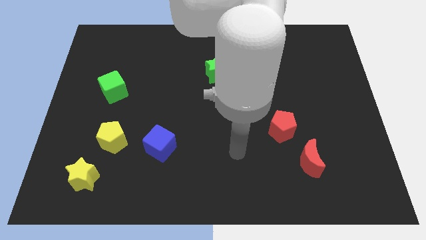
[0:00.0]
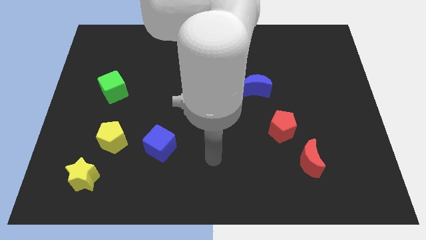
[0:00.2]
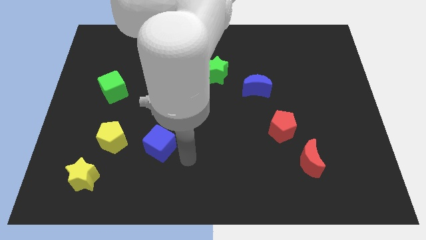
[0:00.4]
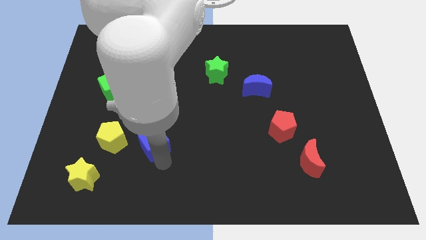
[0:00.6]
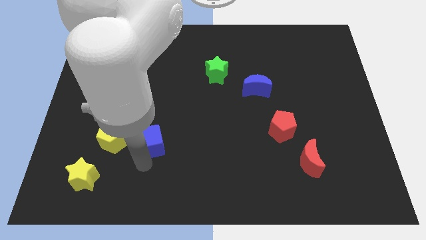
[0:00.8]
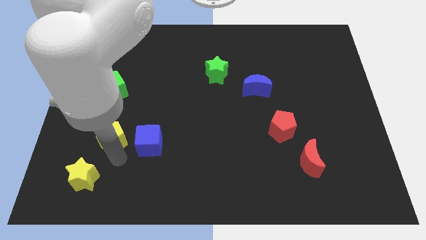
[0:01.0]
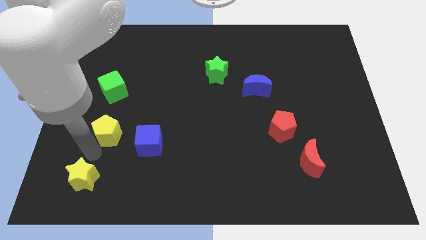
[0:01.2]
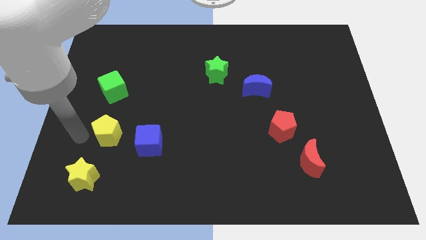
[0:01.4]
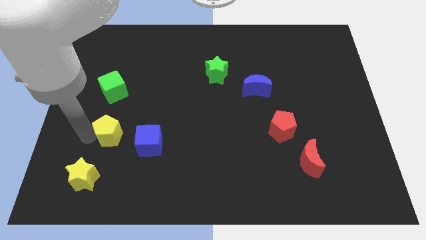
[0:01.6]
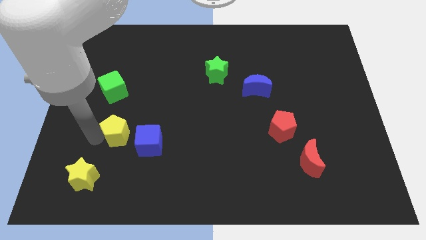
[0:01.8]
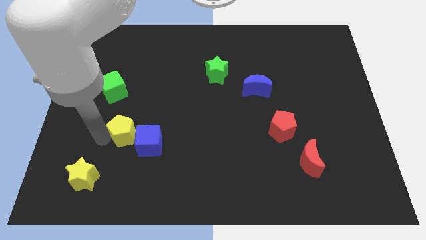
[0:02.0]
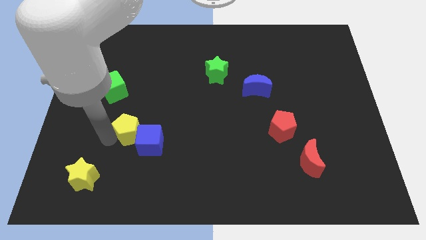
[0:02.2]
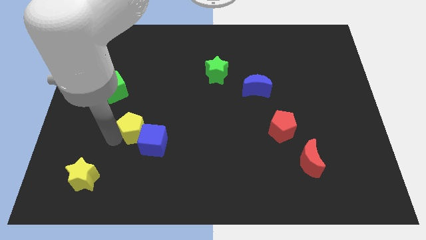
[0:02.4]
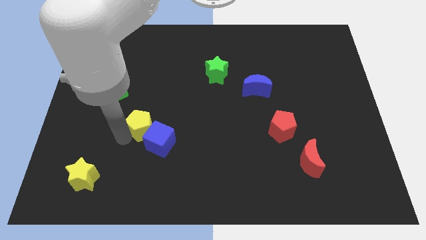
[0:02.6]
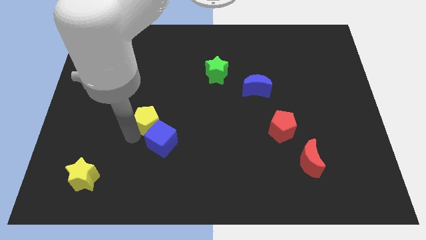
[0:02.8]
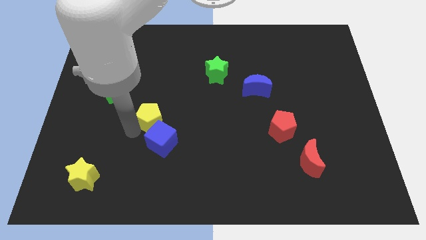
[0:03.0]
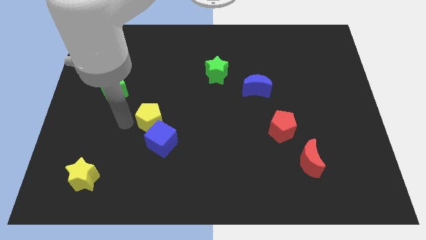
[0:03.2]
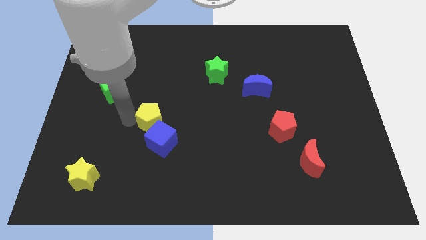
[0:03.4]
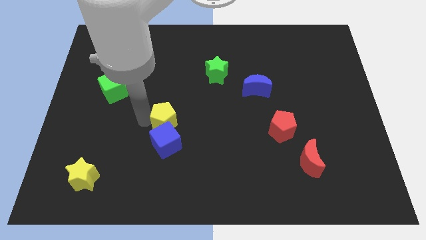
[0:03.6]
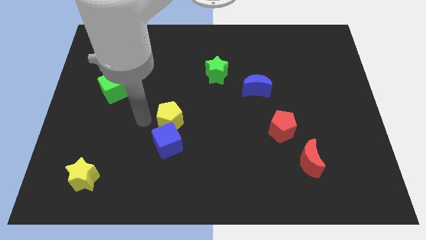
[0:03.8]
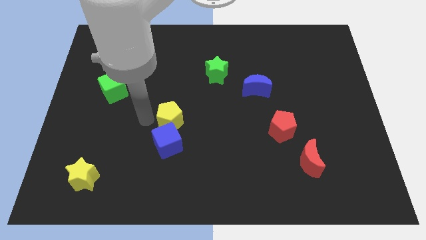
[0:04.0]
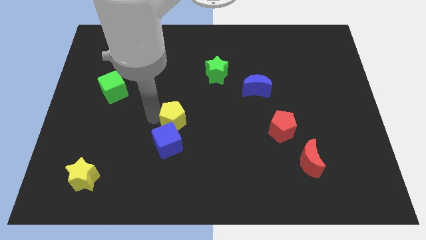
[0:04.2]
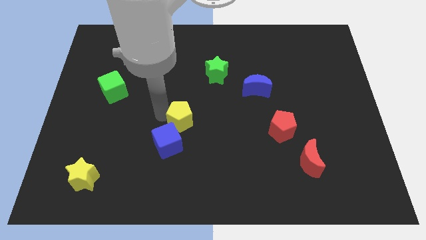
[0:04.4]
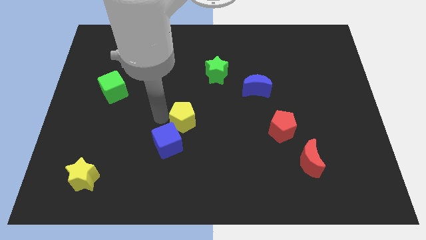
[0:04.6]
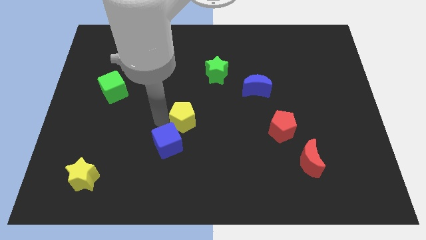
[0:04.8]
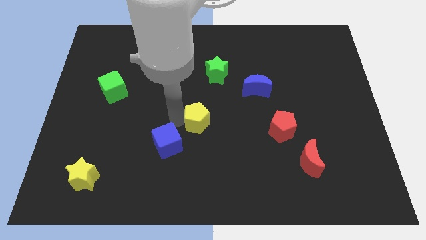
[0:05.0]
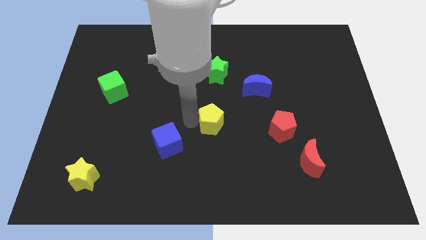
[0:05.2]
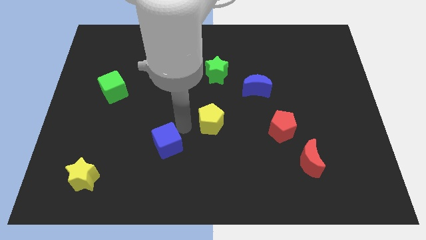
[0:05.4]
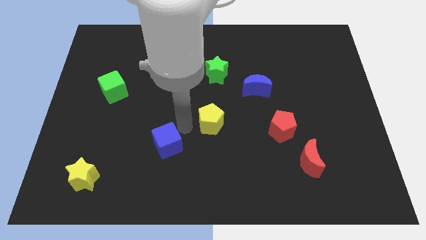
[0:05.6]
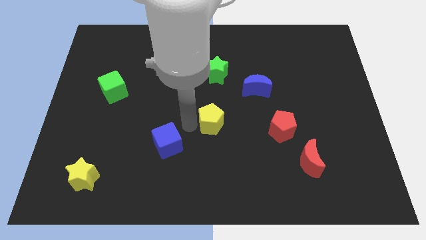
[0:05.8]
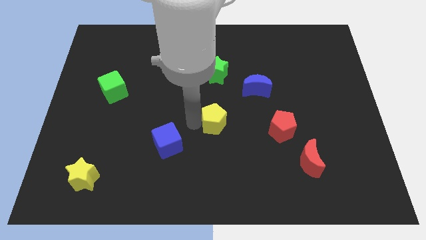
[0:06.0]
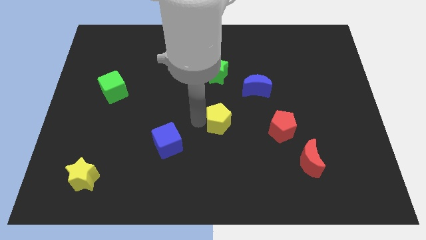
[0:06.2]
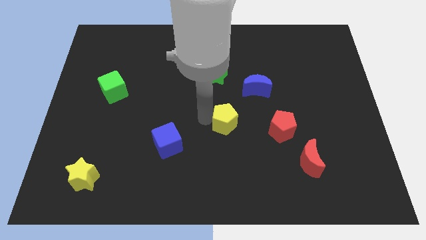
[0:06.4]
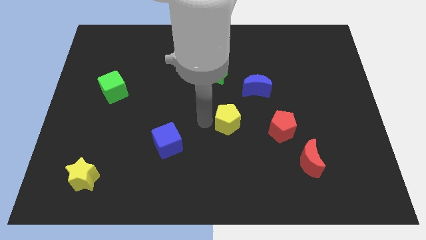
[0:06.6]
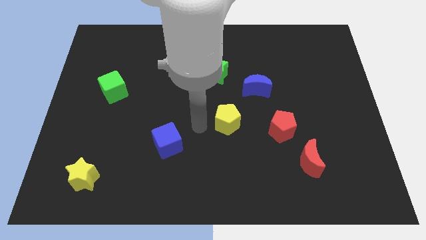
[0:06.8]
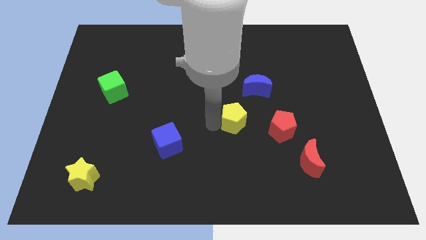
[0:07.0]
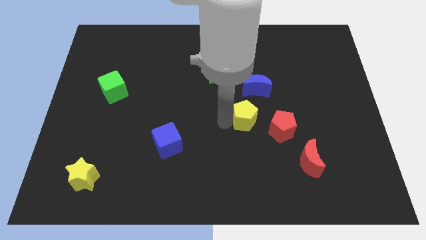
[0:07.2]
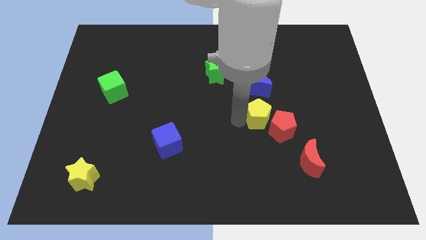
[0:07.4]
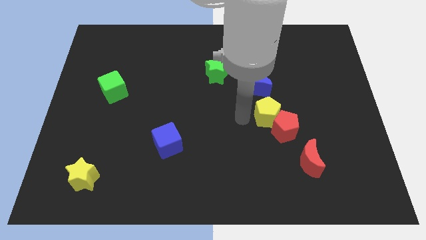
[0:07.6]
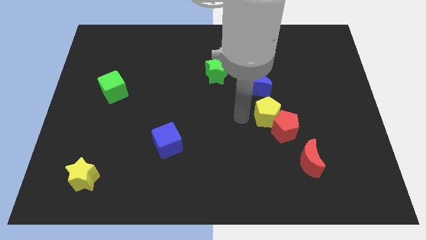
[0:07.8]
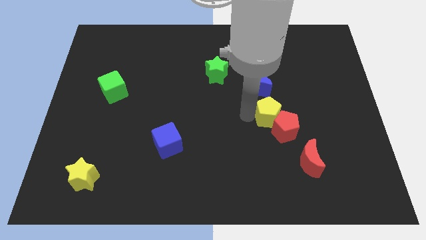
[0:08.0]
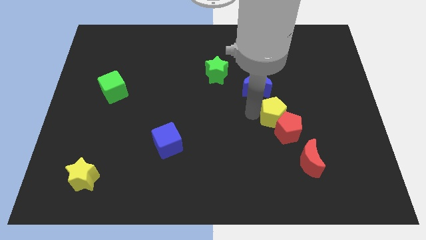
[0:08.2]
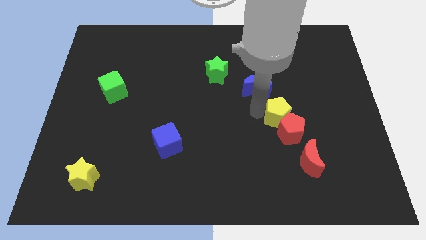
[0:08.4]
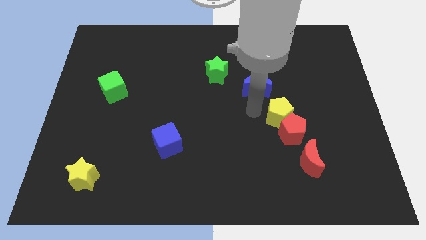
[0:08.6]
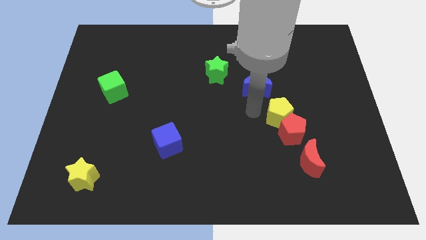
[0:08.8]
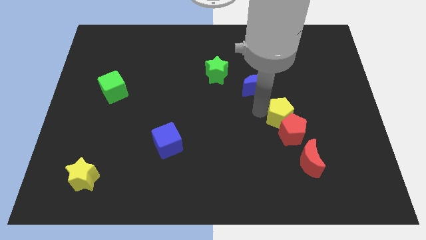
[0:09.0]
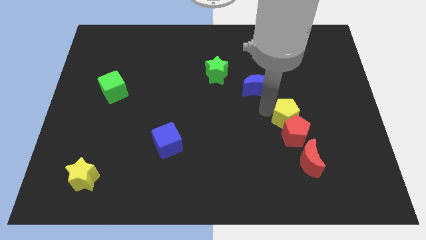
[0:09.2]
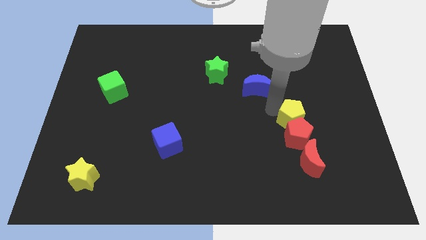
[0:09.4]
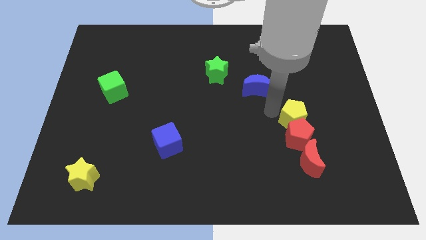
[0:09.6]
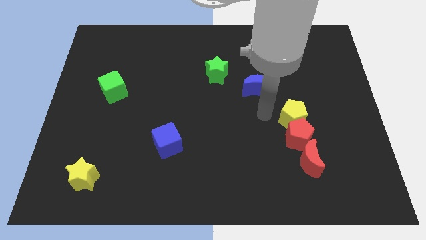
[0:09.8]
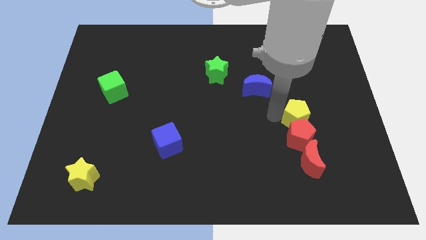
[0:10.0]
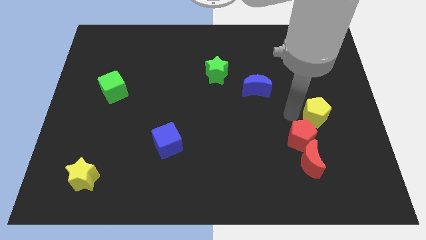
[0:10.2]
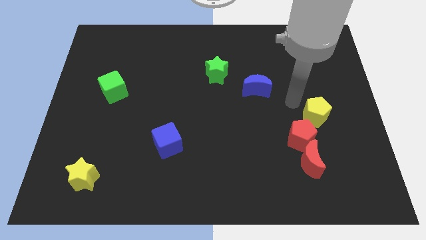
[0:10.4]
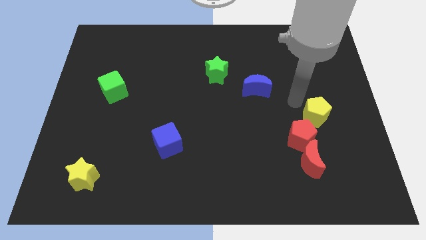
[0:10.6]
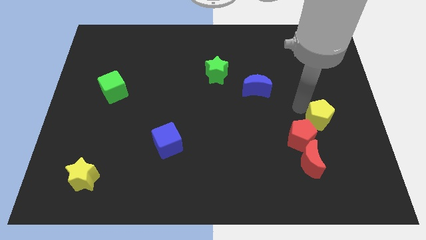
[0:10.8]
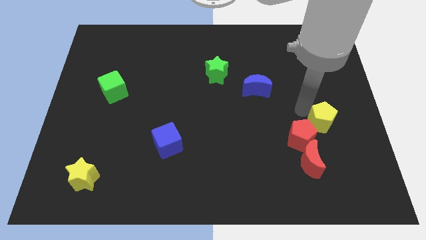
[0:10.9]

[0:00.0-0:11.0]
put the yellow pentagon to the right of the red pentagon

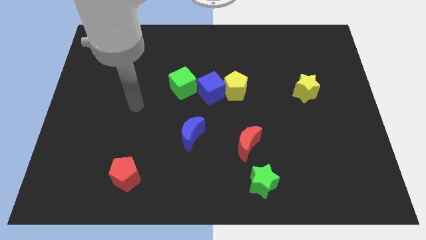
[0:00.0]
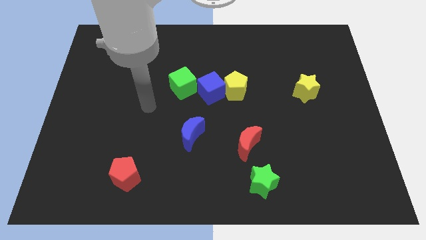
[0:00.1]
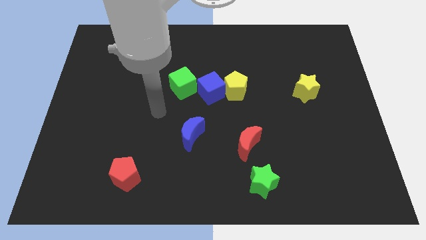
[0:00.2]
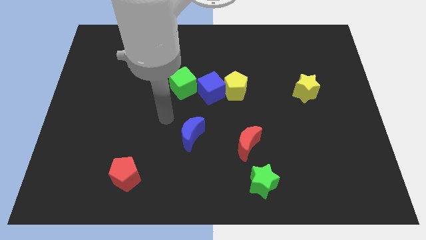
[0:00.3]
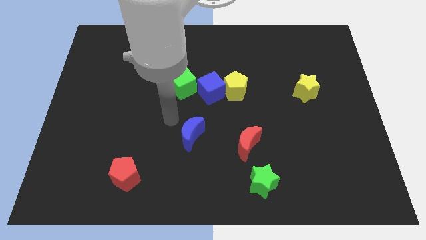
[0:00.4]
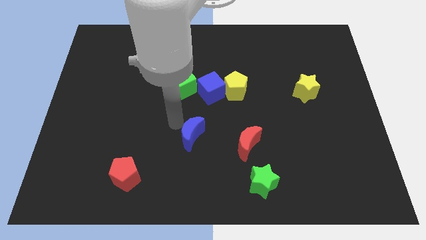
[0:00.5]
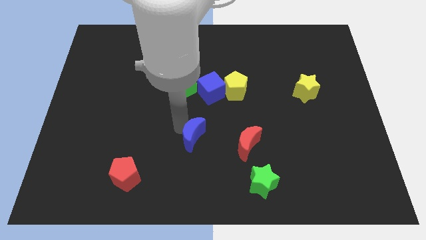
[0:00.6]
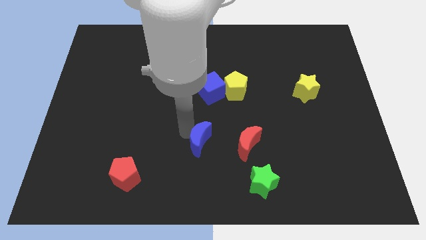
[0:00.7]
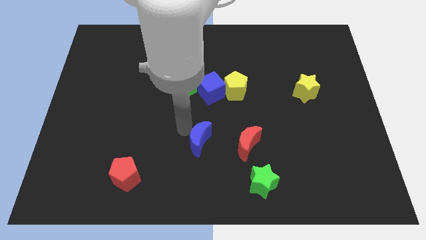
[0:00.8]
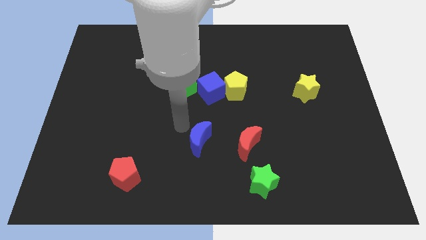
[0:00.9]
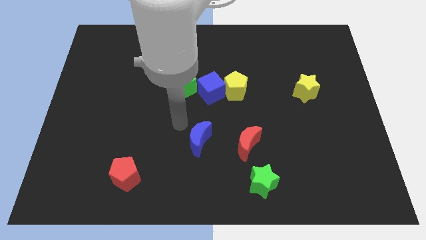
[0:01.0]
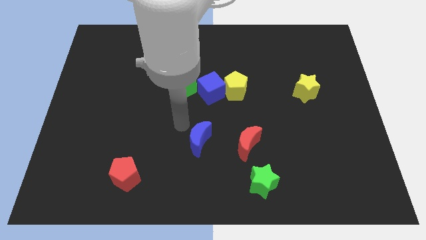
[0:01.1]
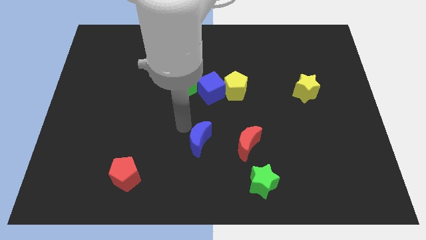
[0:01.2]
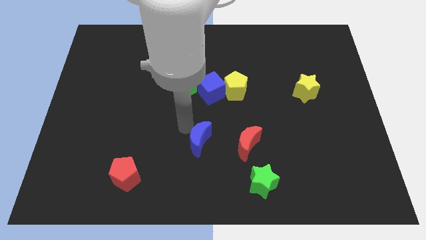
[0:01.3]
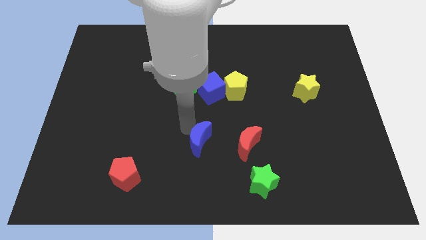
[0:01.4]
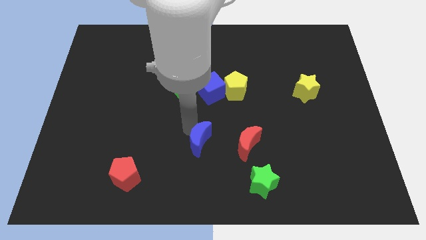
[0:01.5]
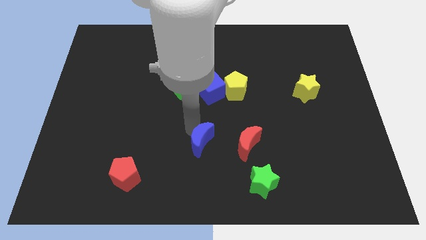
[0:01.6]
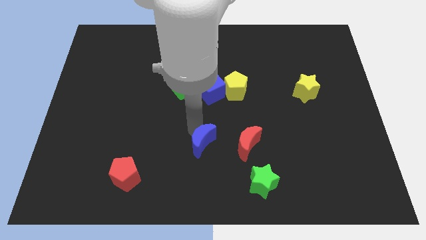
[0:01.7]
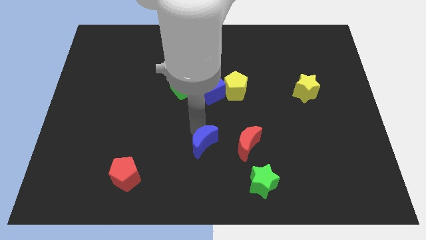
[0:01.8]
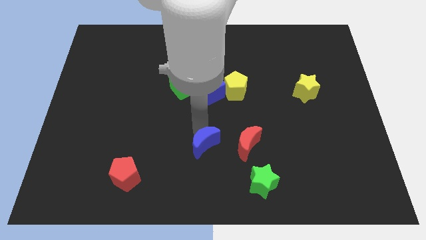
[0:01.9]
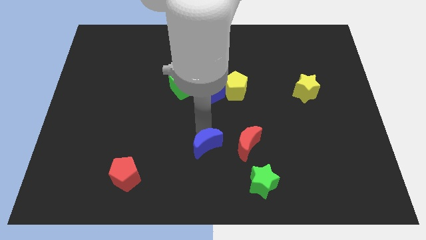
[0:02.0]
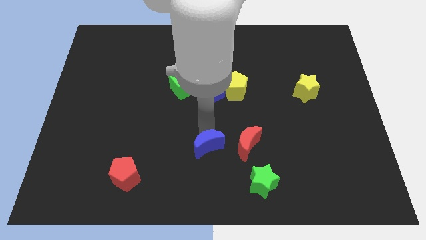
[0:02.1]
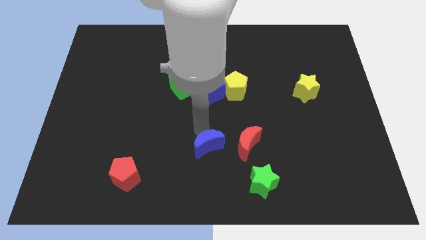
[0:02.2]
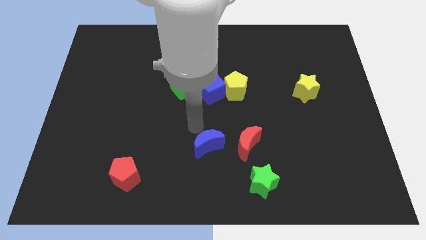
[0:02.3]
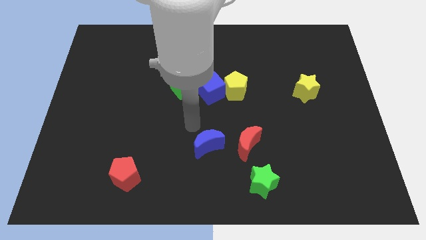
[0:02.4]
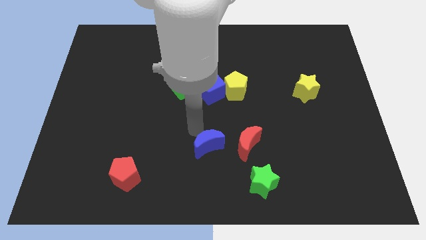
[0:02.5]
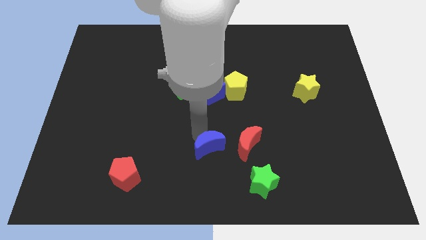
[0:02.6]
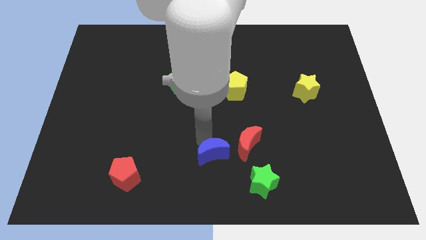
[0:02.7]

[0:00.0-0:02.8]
push the blue moon diagonally down and to the left of the red moon
